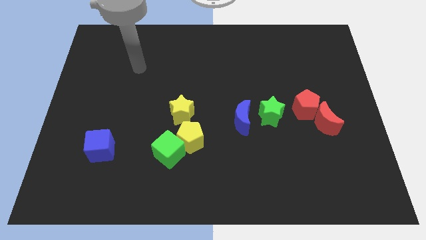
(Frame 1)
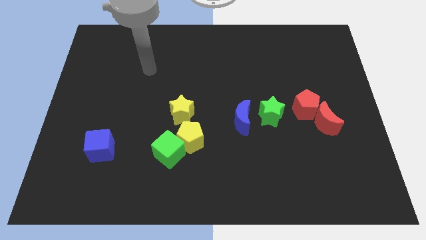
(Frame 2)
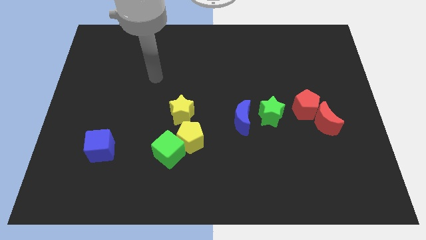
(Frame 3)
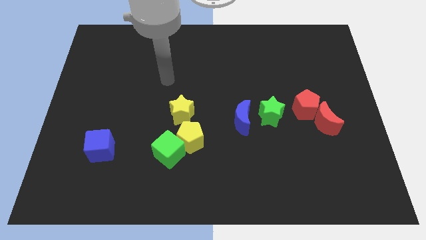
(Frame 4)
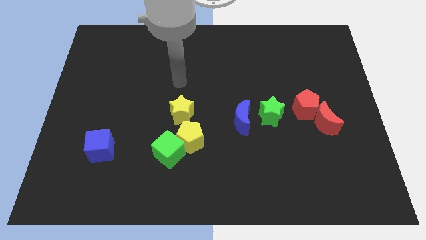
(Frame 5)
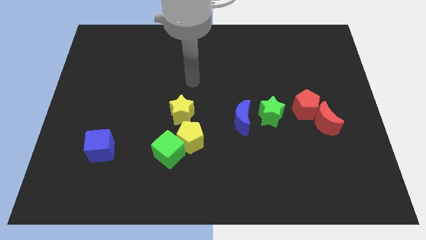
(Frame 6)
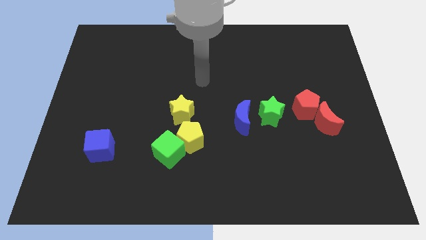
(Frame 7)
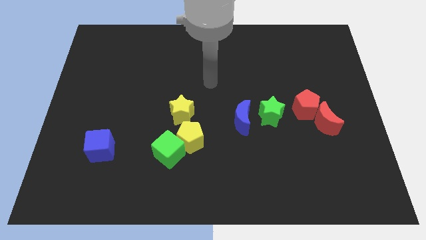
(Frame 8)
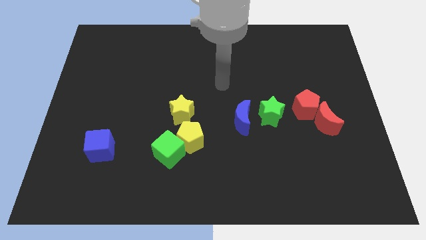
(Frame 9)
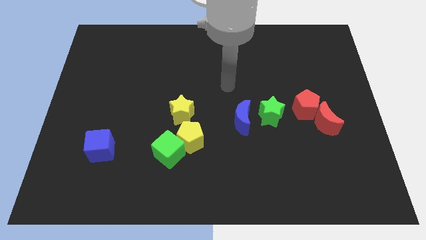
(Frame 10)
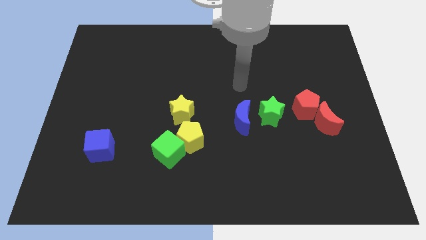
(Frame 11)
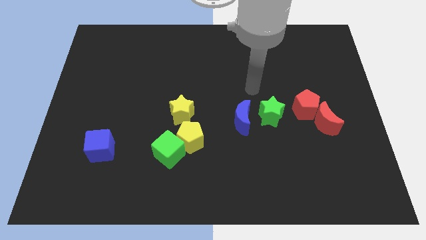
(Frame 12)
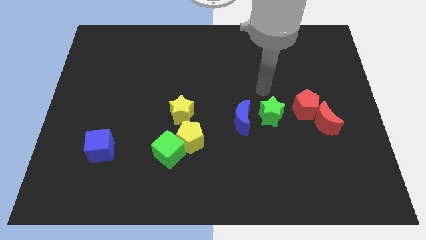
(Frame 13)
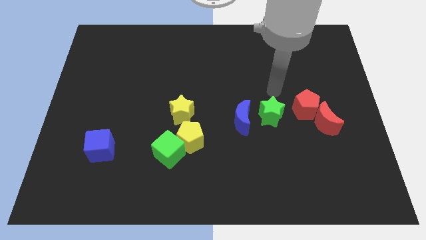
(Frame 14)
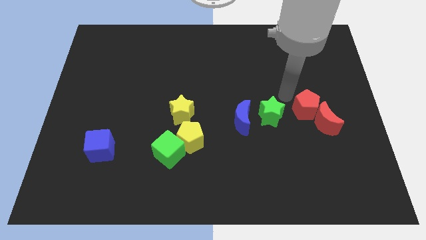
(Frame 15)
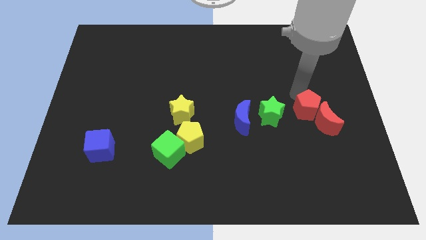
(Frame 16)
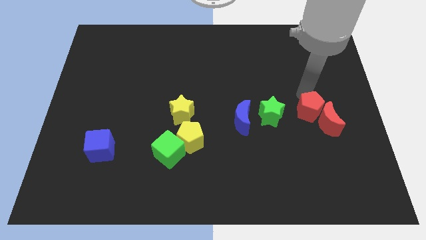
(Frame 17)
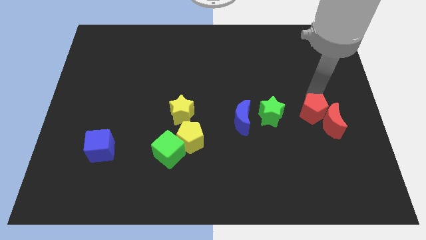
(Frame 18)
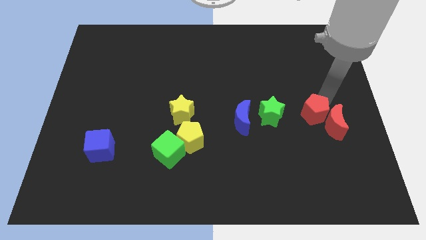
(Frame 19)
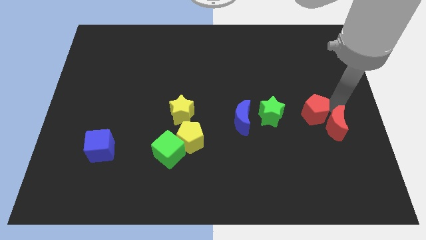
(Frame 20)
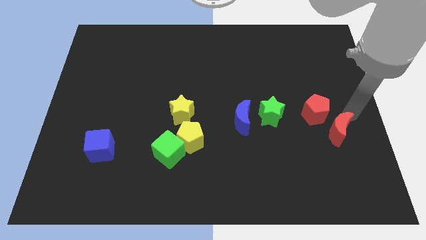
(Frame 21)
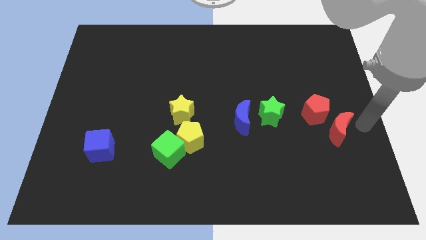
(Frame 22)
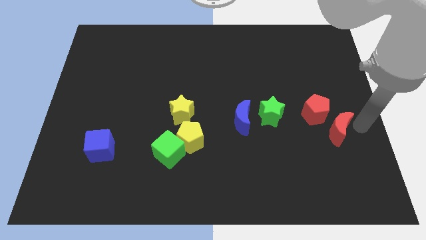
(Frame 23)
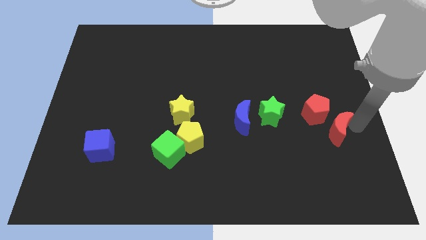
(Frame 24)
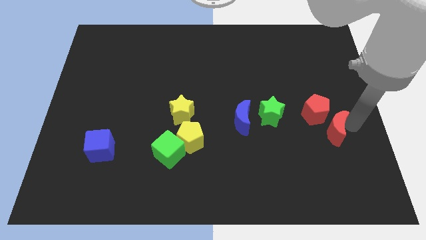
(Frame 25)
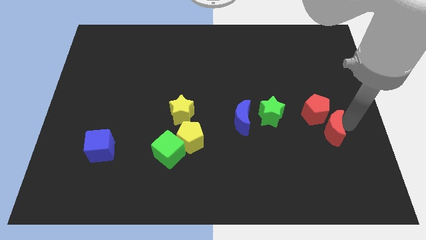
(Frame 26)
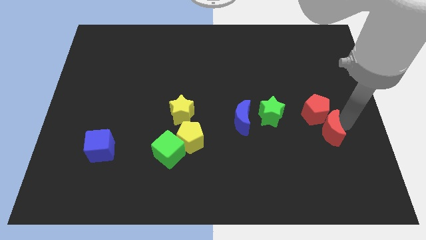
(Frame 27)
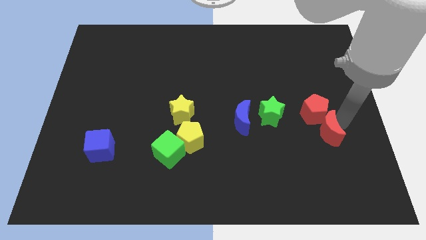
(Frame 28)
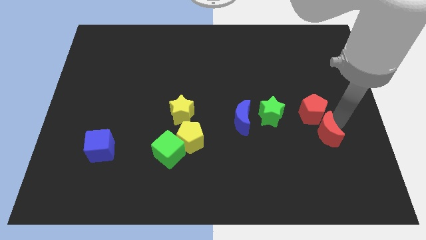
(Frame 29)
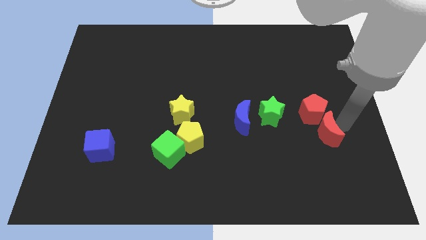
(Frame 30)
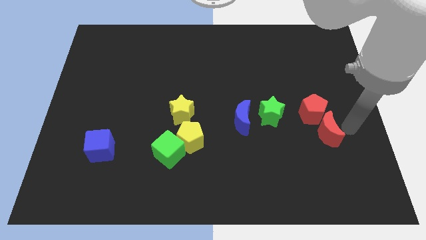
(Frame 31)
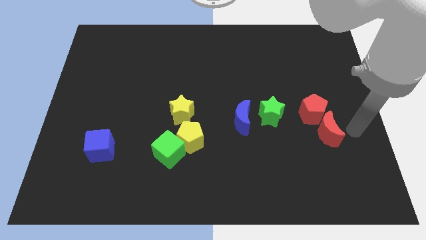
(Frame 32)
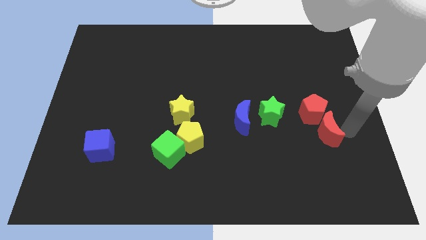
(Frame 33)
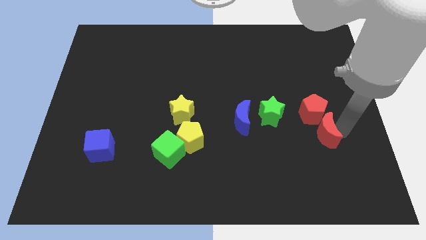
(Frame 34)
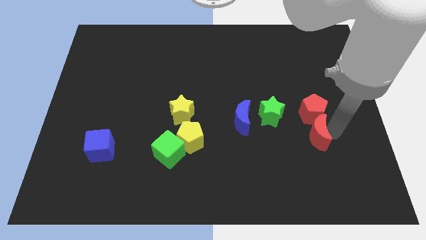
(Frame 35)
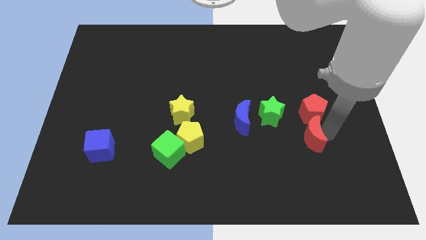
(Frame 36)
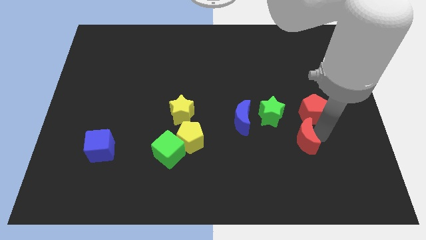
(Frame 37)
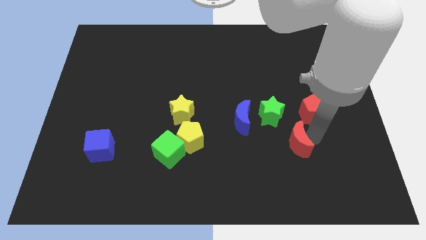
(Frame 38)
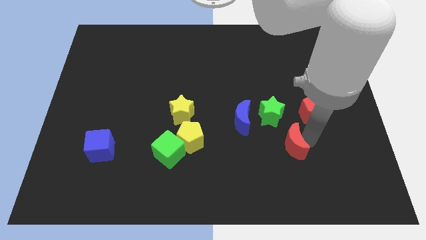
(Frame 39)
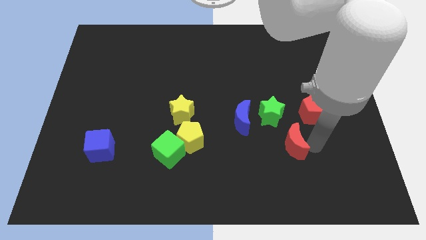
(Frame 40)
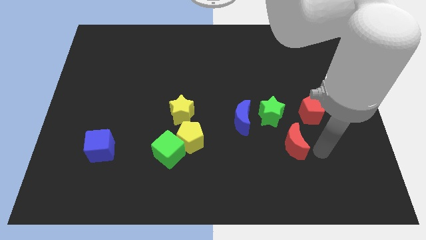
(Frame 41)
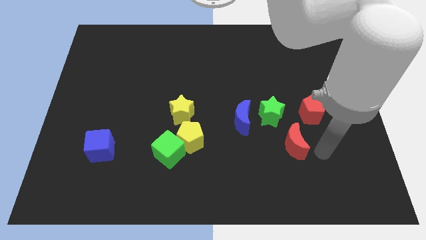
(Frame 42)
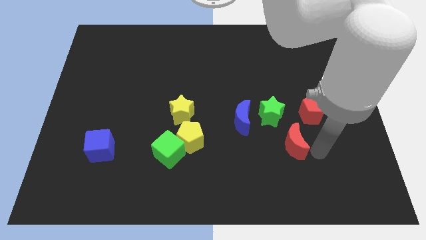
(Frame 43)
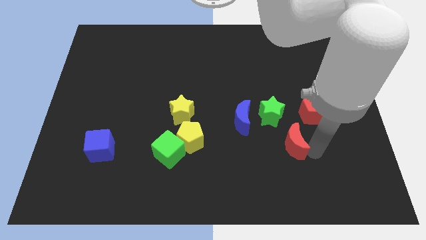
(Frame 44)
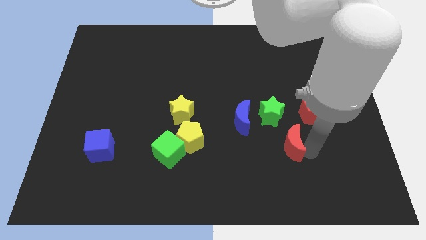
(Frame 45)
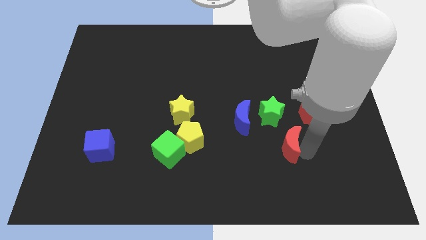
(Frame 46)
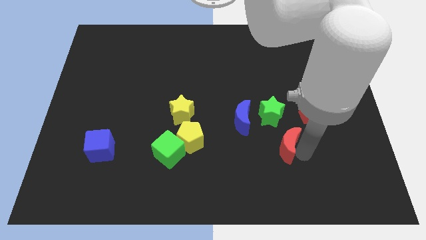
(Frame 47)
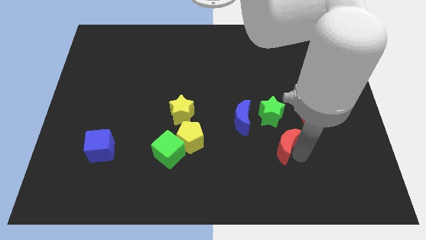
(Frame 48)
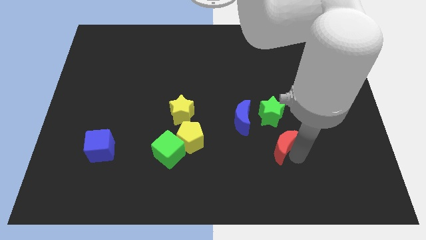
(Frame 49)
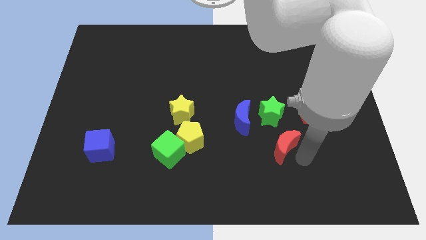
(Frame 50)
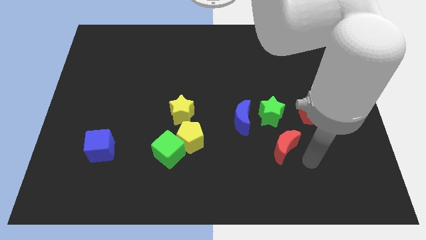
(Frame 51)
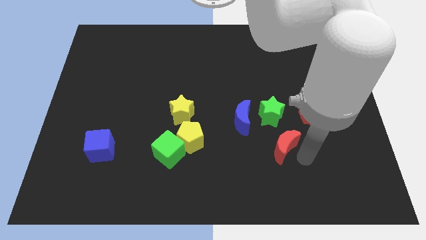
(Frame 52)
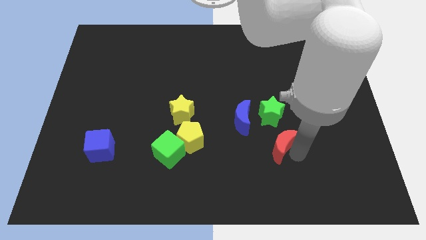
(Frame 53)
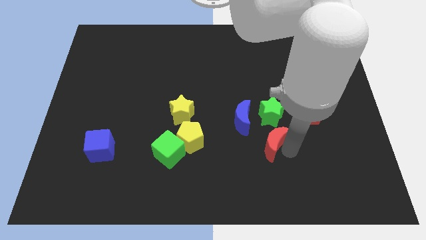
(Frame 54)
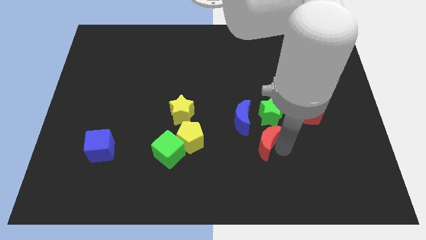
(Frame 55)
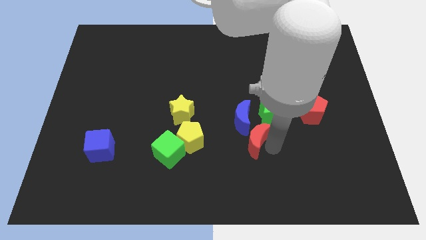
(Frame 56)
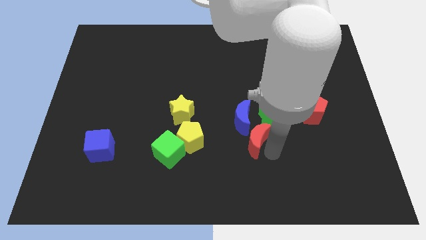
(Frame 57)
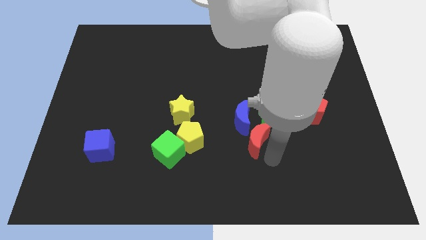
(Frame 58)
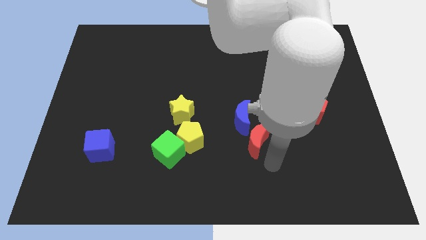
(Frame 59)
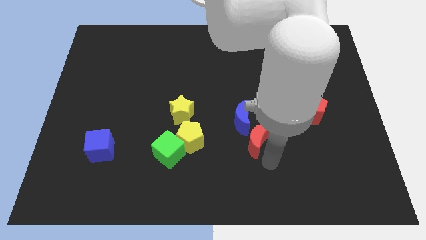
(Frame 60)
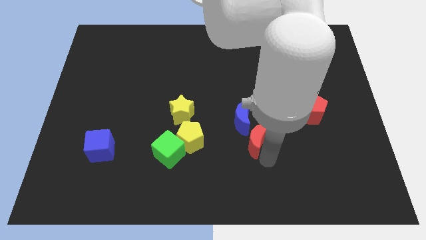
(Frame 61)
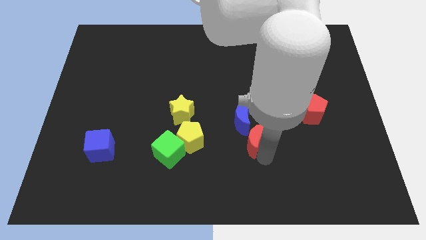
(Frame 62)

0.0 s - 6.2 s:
put the red moon to the blue moon

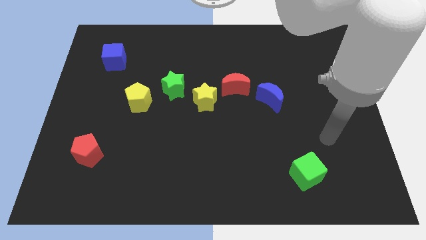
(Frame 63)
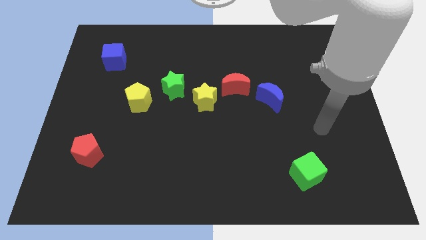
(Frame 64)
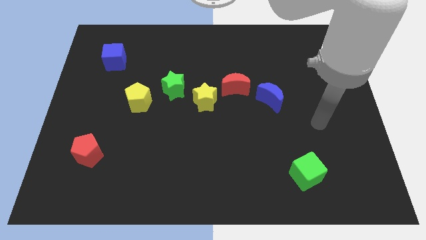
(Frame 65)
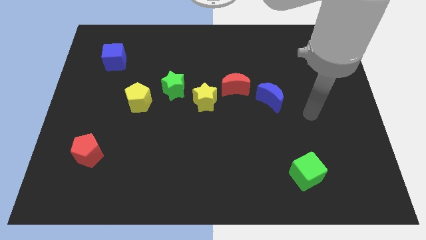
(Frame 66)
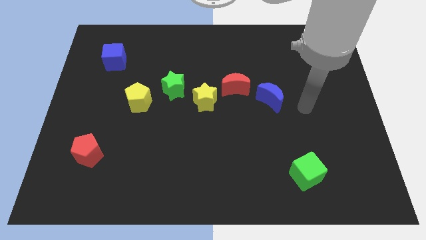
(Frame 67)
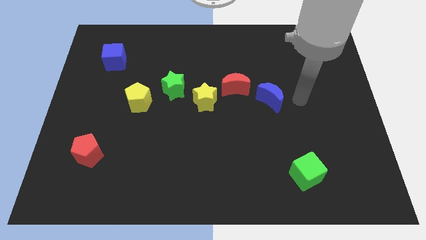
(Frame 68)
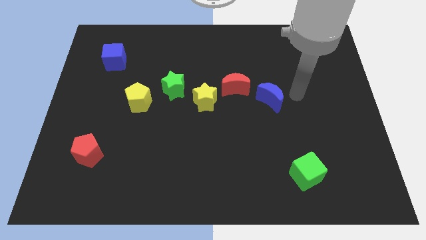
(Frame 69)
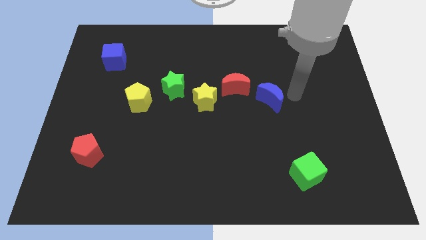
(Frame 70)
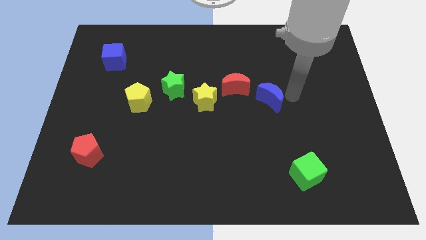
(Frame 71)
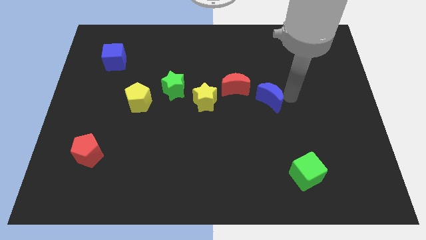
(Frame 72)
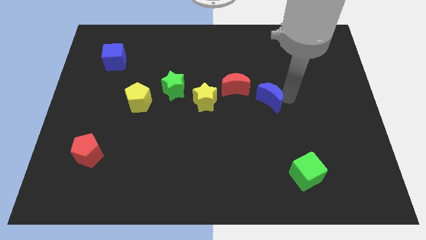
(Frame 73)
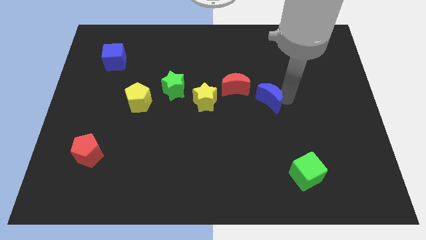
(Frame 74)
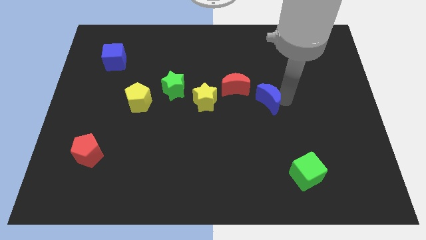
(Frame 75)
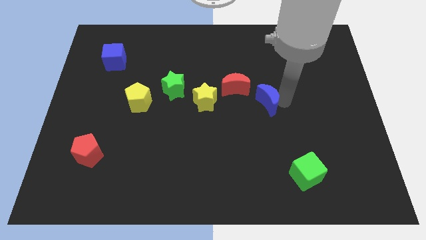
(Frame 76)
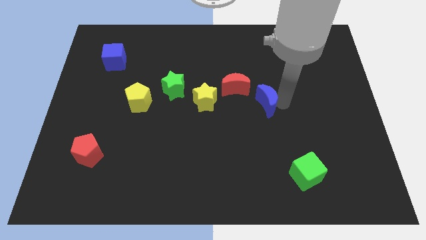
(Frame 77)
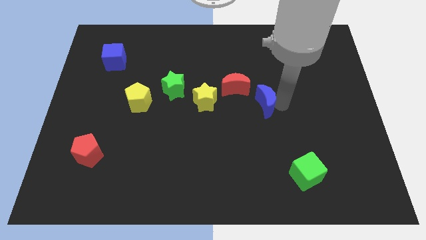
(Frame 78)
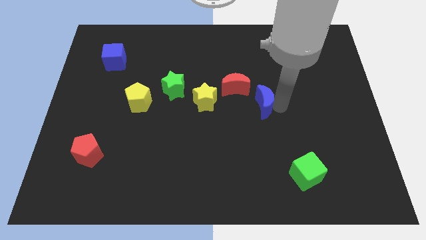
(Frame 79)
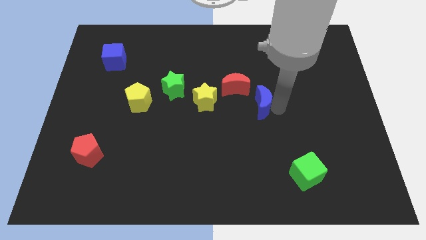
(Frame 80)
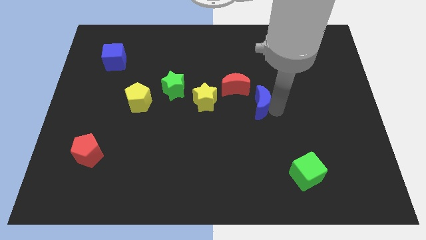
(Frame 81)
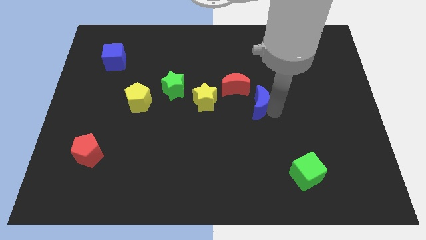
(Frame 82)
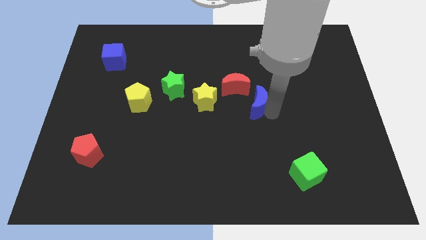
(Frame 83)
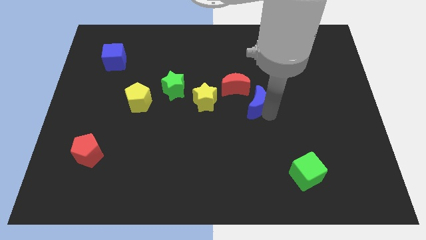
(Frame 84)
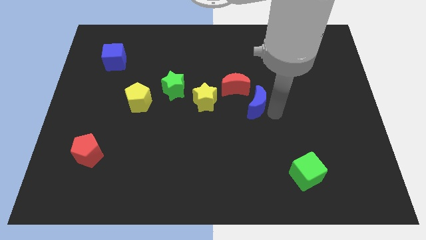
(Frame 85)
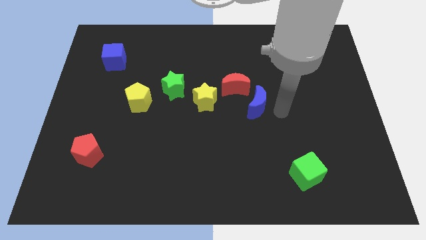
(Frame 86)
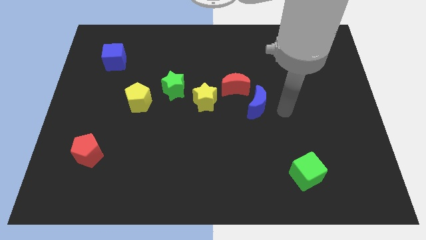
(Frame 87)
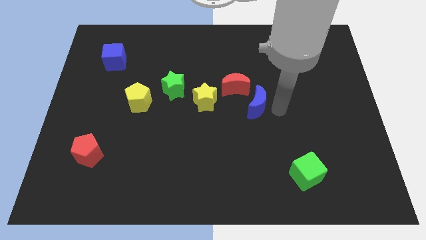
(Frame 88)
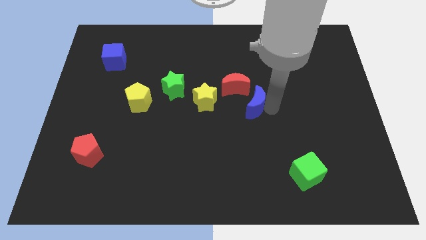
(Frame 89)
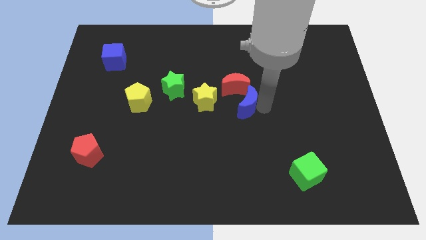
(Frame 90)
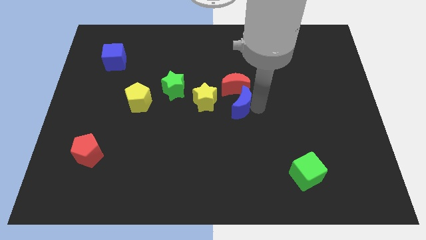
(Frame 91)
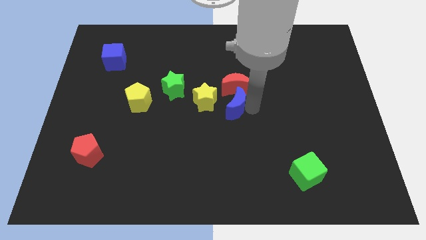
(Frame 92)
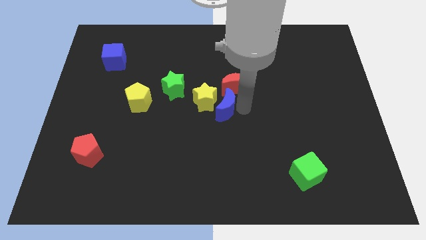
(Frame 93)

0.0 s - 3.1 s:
move the blue moon next to the yellow star
